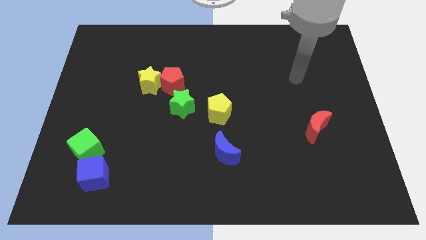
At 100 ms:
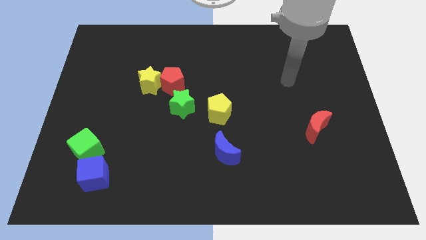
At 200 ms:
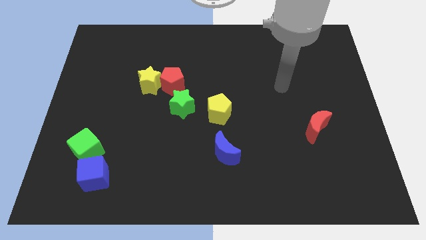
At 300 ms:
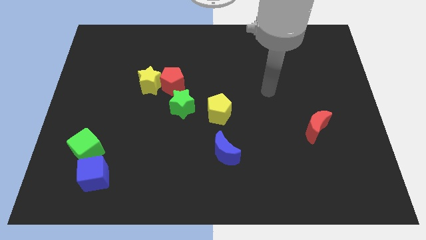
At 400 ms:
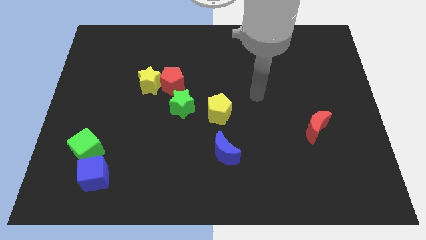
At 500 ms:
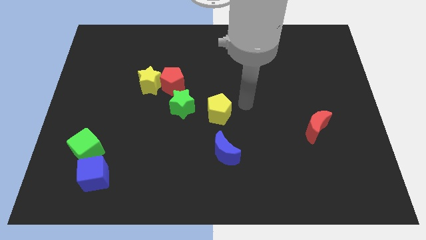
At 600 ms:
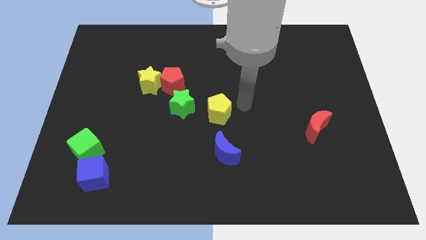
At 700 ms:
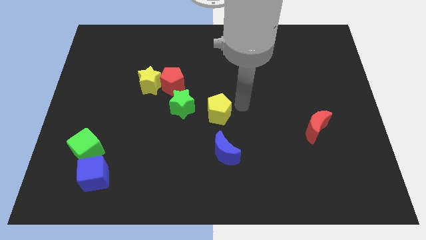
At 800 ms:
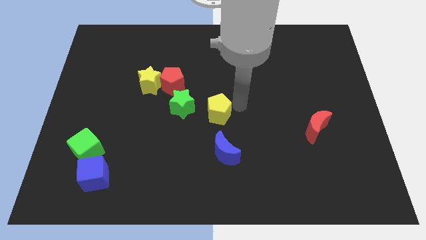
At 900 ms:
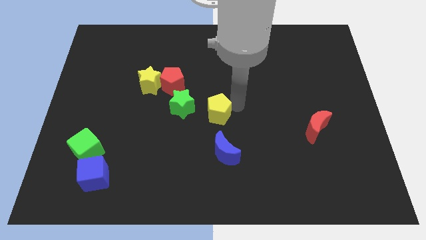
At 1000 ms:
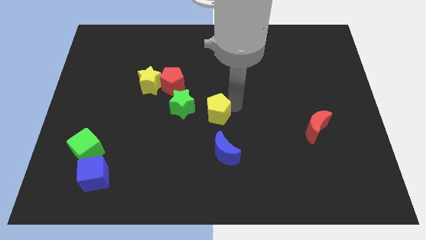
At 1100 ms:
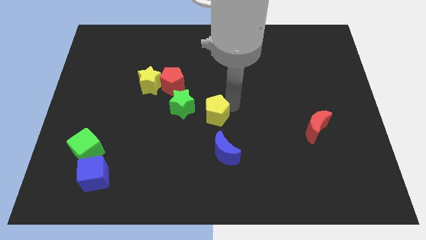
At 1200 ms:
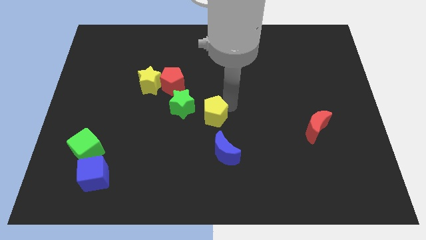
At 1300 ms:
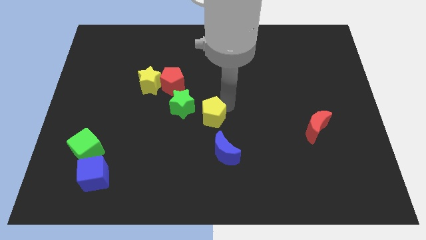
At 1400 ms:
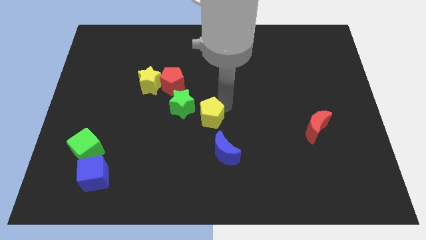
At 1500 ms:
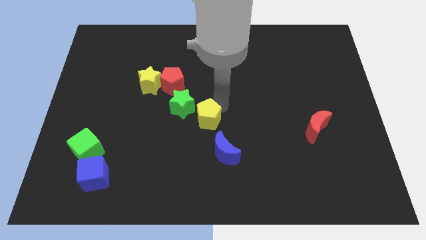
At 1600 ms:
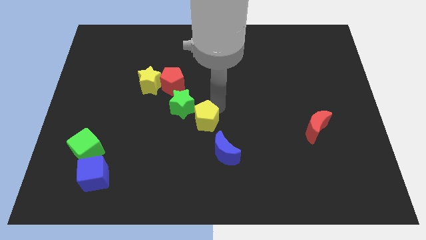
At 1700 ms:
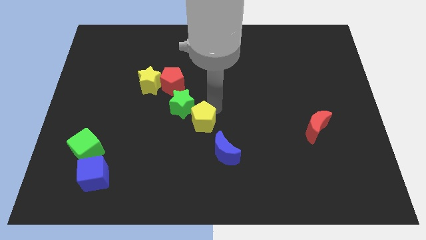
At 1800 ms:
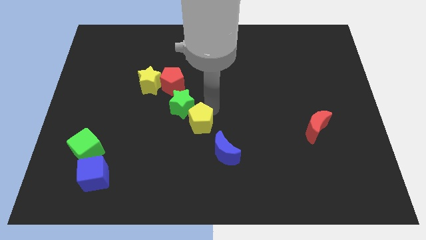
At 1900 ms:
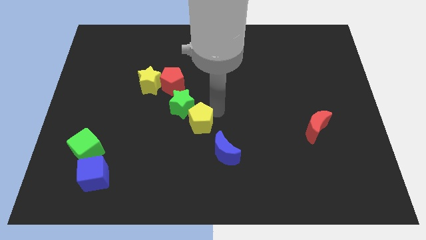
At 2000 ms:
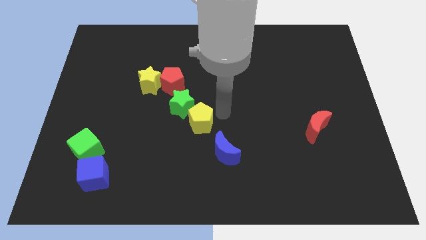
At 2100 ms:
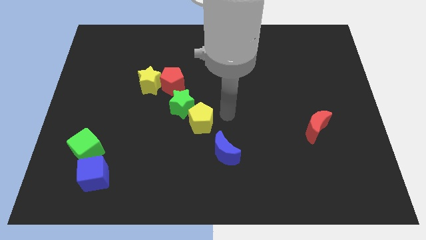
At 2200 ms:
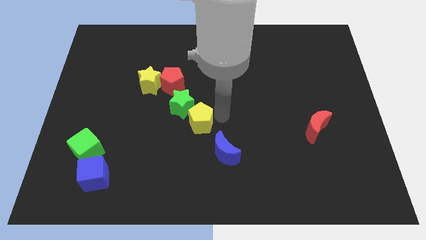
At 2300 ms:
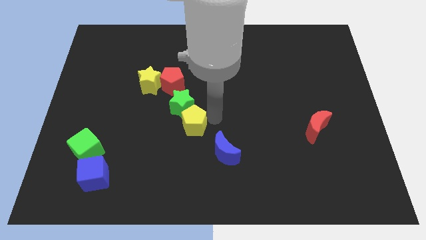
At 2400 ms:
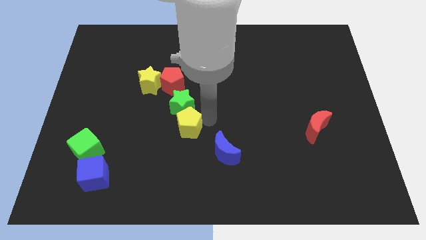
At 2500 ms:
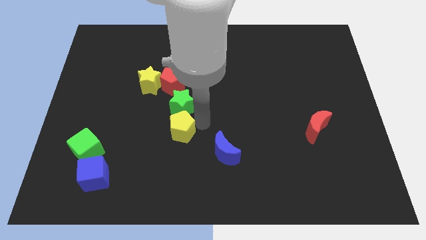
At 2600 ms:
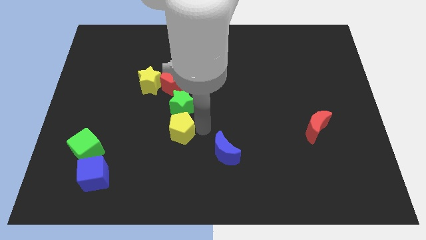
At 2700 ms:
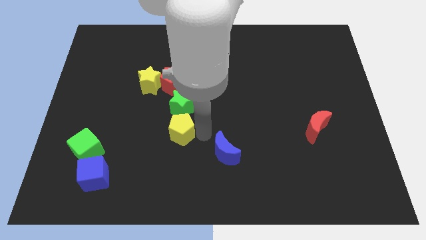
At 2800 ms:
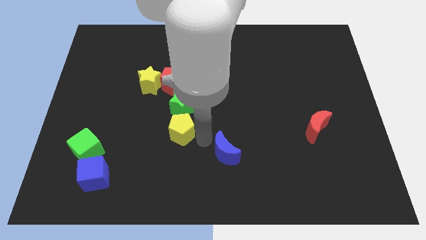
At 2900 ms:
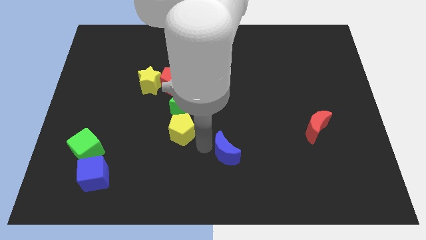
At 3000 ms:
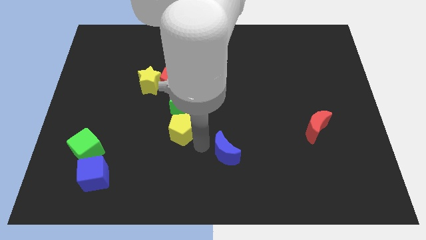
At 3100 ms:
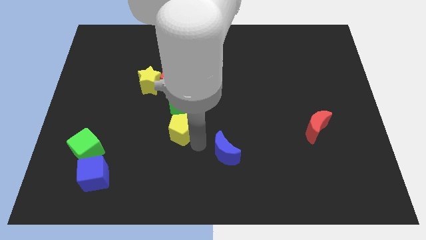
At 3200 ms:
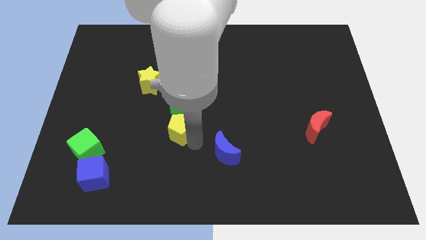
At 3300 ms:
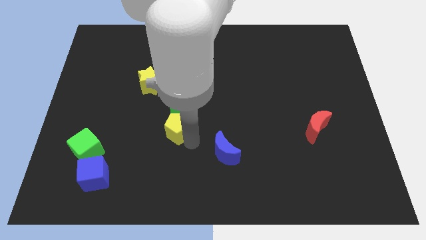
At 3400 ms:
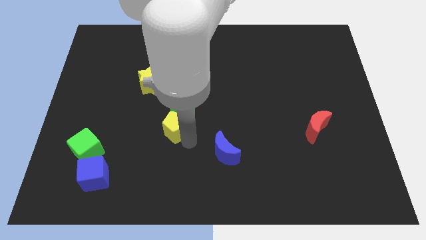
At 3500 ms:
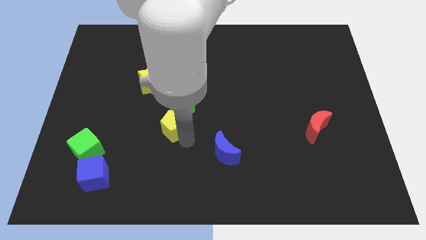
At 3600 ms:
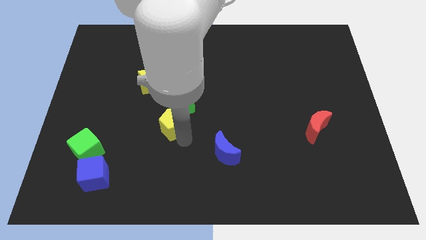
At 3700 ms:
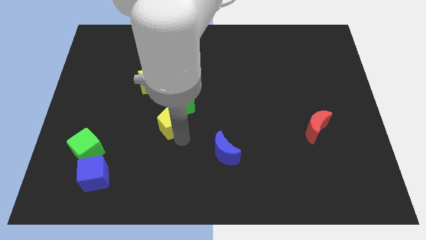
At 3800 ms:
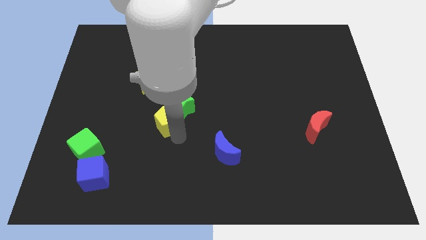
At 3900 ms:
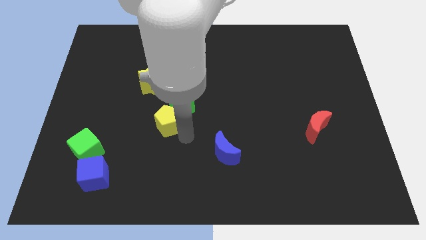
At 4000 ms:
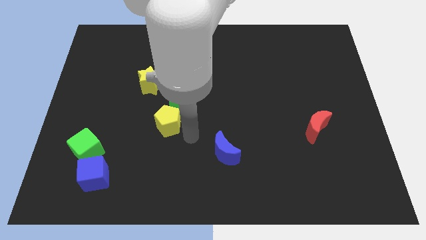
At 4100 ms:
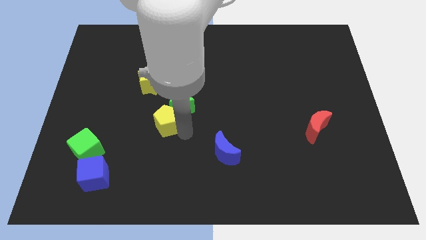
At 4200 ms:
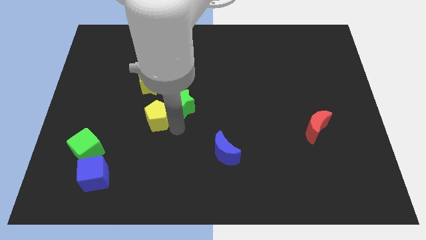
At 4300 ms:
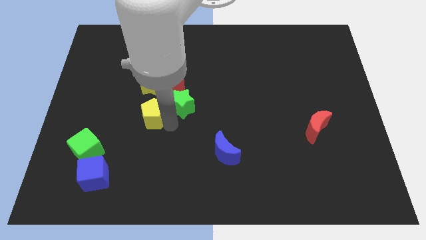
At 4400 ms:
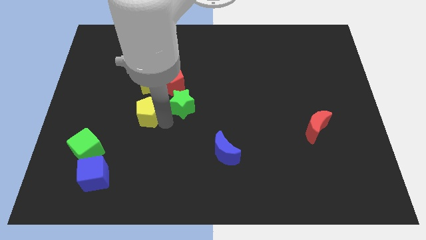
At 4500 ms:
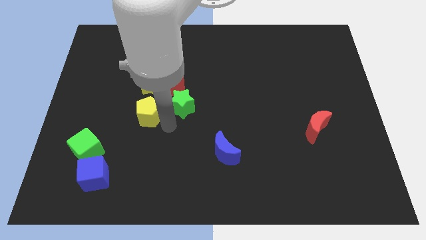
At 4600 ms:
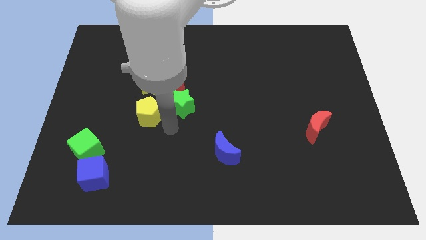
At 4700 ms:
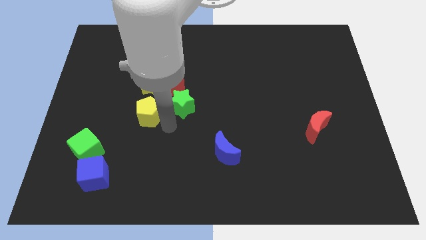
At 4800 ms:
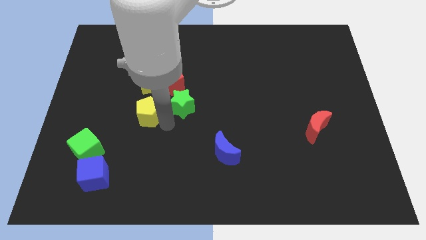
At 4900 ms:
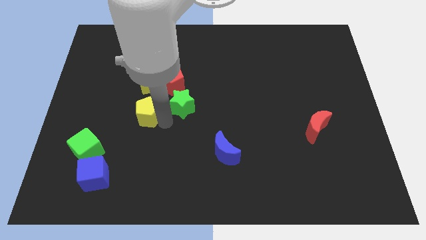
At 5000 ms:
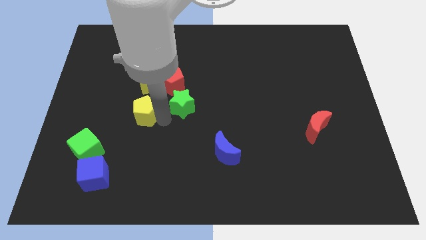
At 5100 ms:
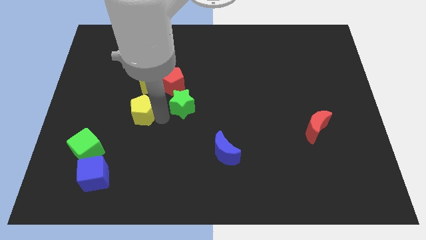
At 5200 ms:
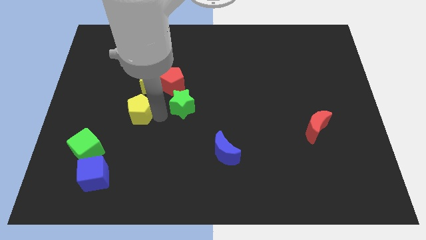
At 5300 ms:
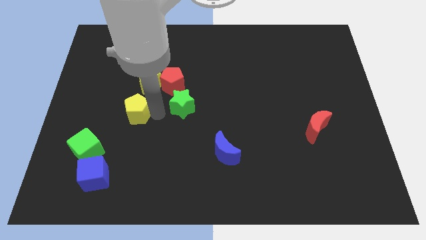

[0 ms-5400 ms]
push the yellow pentagon to the bottom left side of the yellow star

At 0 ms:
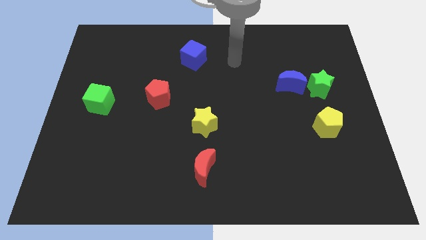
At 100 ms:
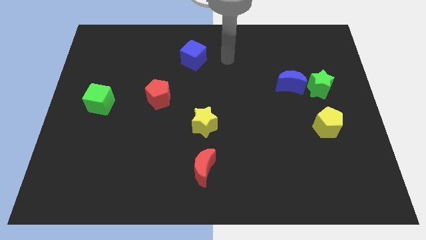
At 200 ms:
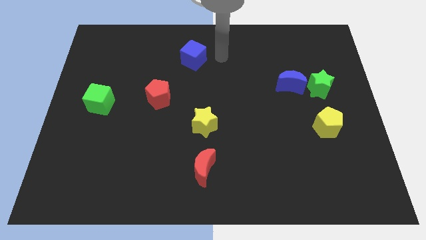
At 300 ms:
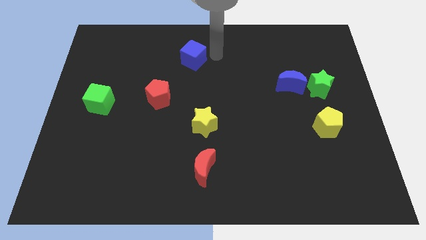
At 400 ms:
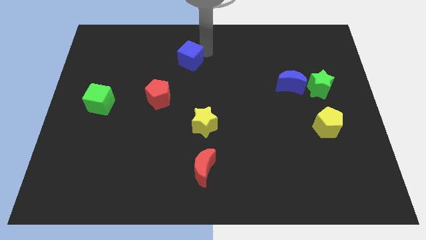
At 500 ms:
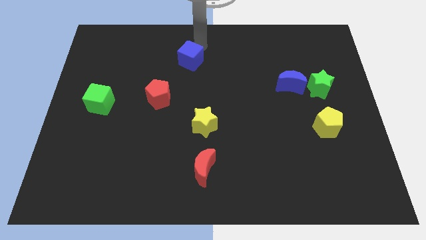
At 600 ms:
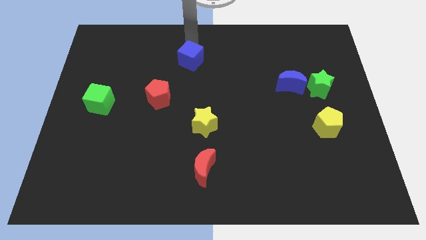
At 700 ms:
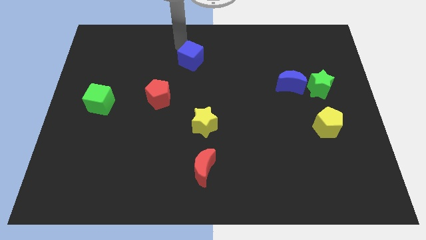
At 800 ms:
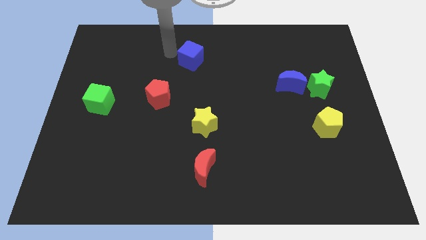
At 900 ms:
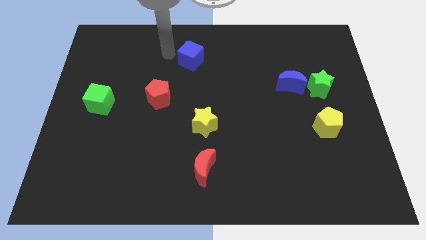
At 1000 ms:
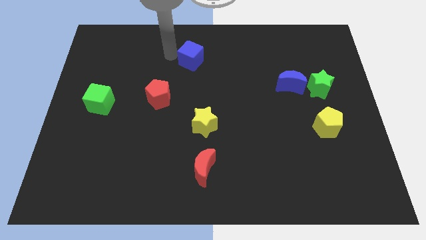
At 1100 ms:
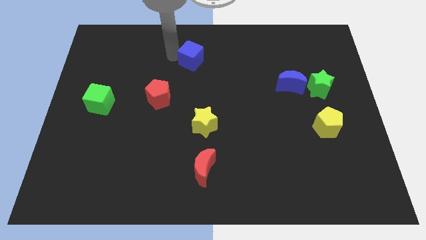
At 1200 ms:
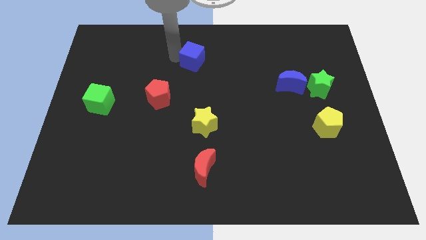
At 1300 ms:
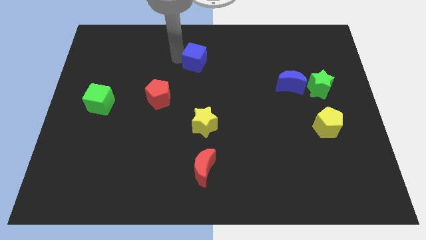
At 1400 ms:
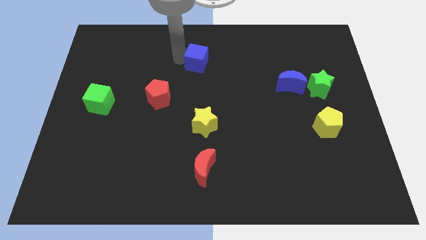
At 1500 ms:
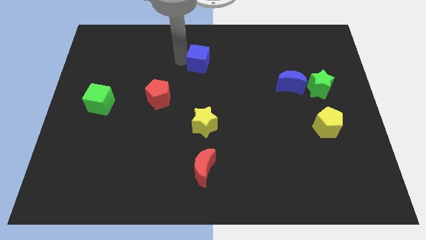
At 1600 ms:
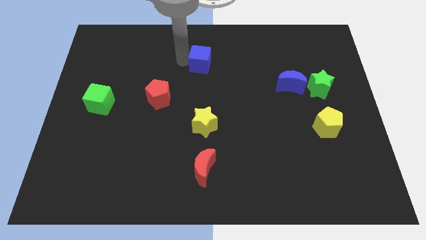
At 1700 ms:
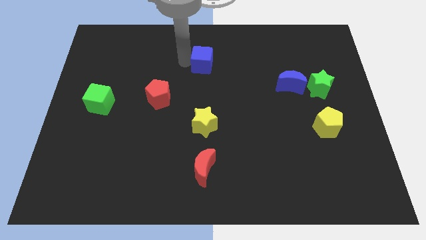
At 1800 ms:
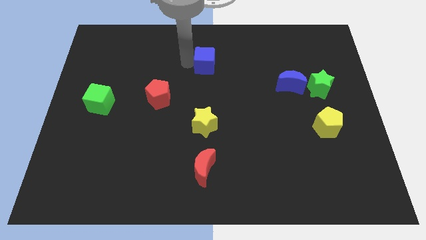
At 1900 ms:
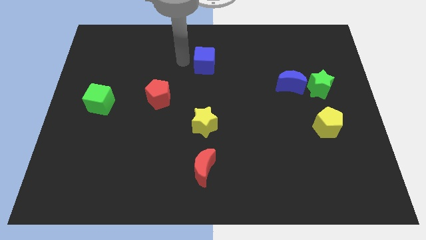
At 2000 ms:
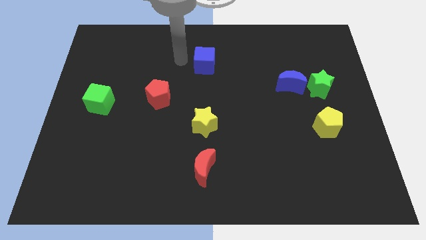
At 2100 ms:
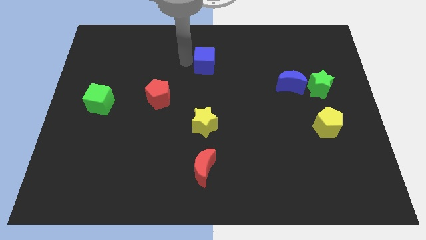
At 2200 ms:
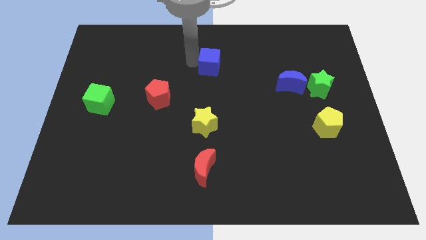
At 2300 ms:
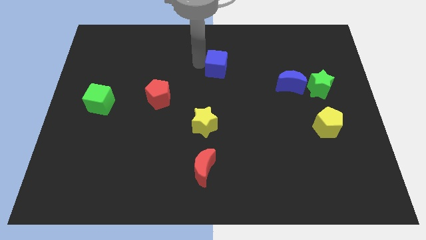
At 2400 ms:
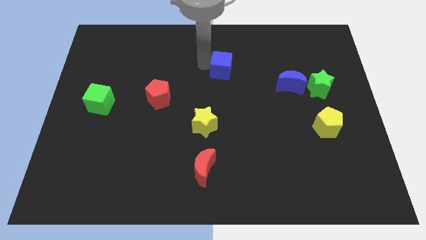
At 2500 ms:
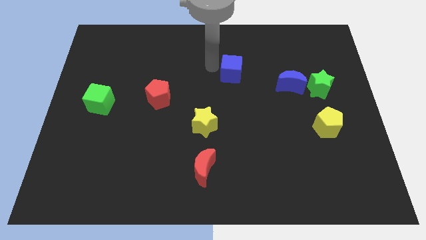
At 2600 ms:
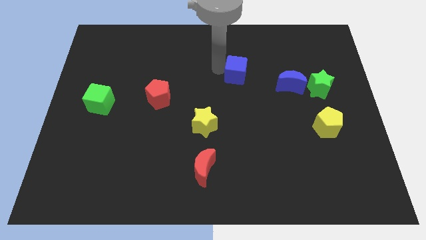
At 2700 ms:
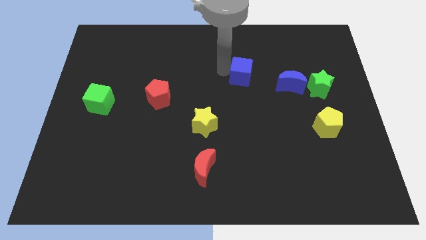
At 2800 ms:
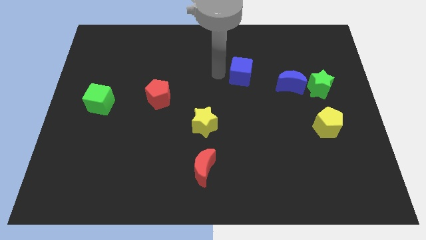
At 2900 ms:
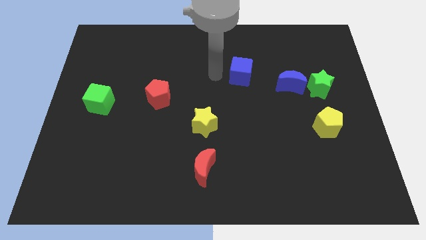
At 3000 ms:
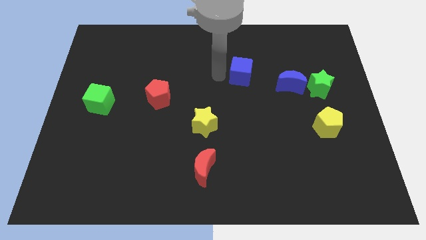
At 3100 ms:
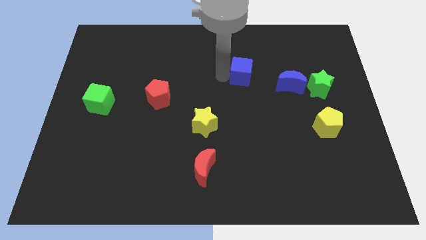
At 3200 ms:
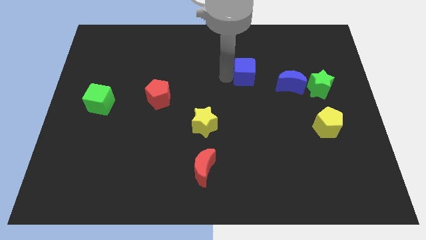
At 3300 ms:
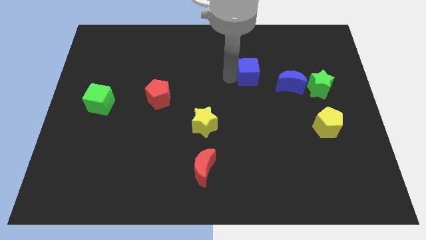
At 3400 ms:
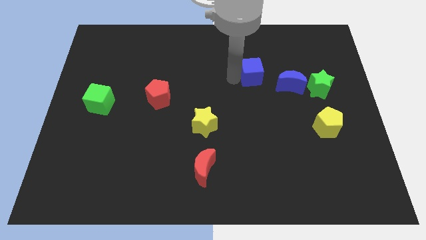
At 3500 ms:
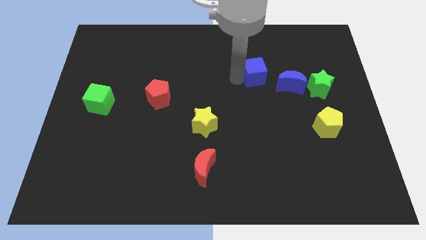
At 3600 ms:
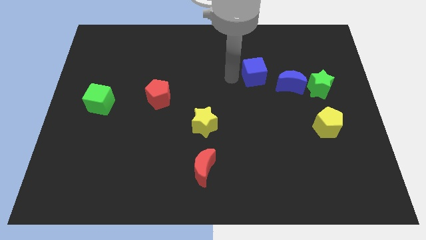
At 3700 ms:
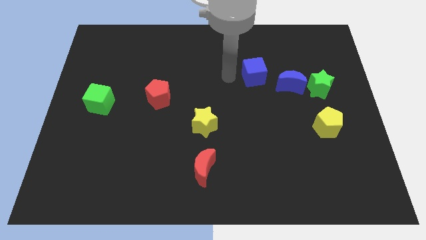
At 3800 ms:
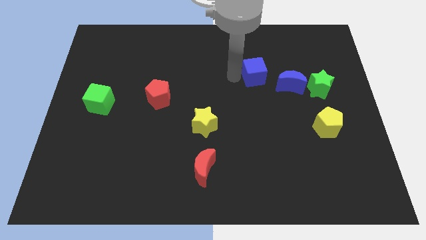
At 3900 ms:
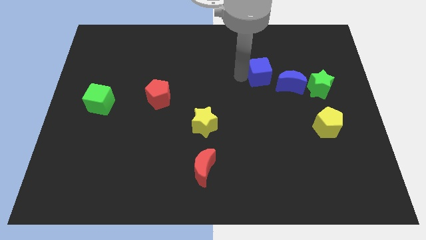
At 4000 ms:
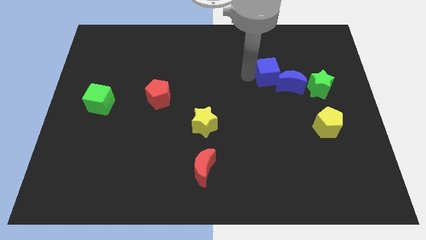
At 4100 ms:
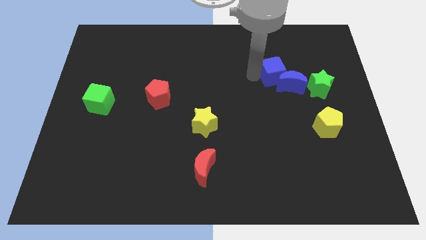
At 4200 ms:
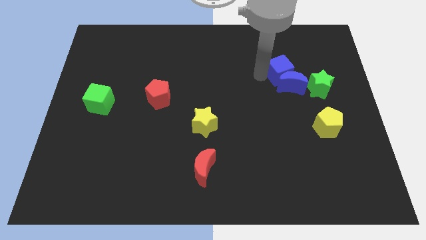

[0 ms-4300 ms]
slide the blue cube diagonally up and to the left of the green star
